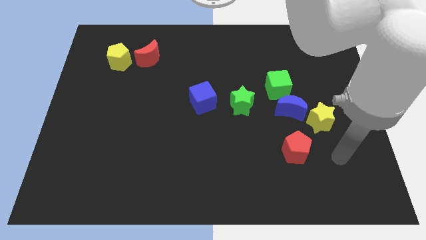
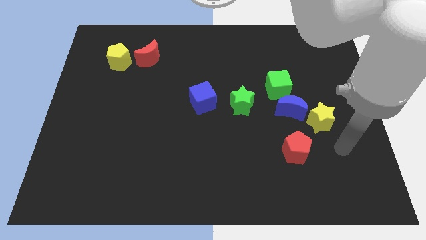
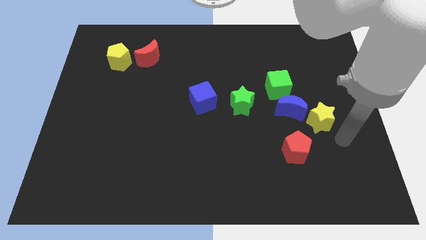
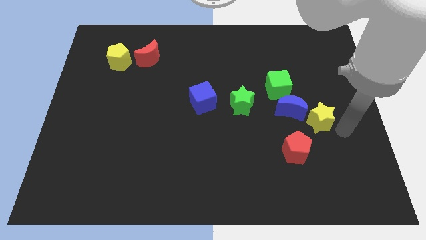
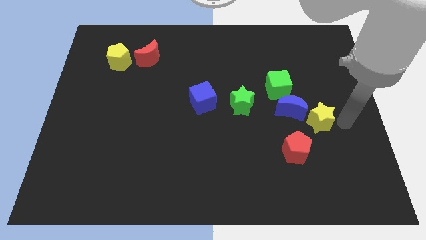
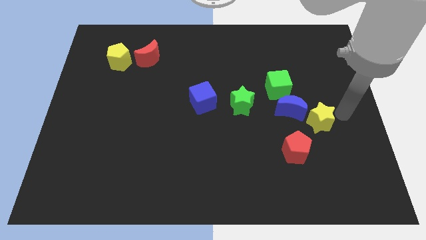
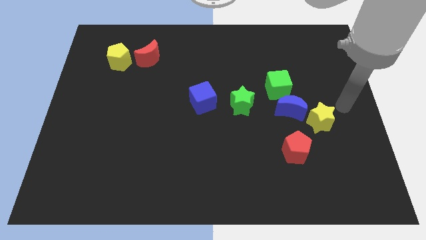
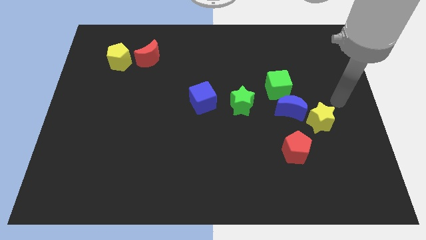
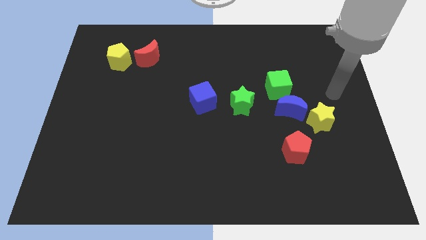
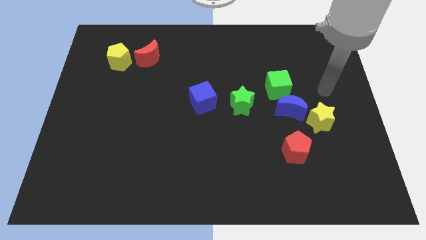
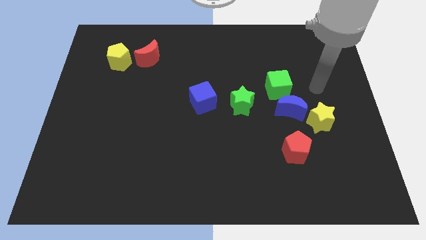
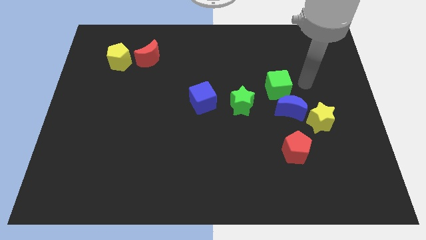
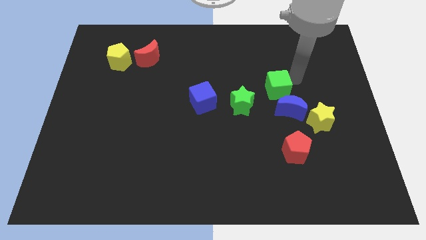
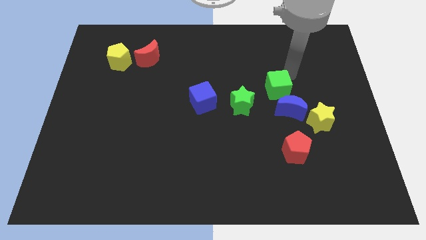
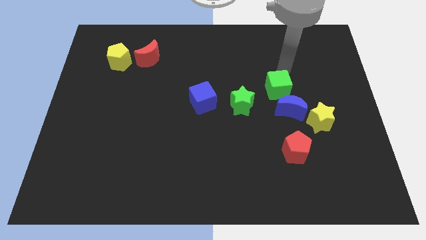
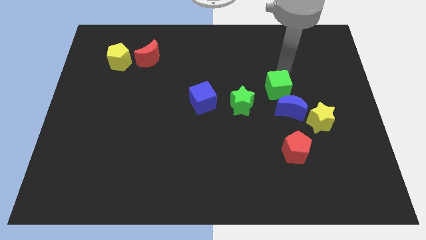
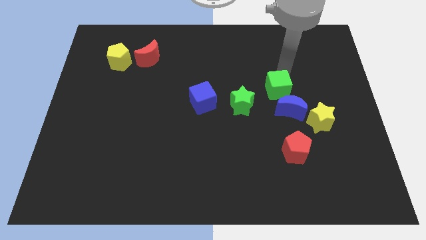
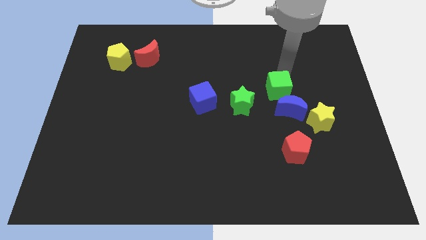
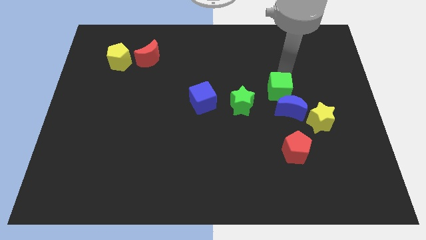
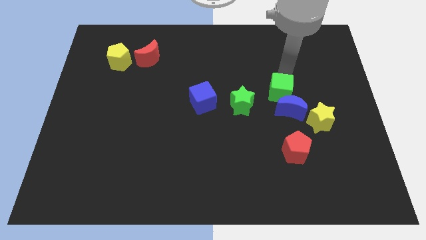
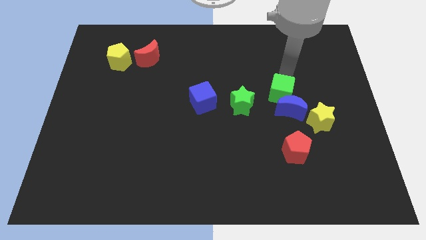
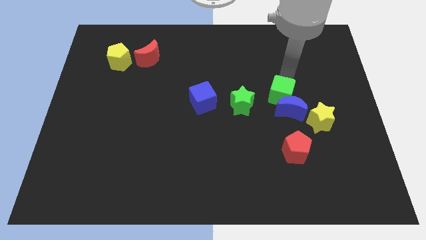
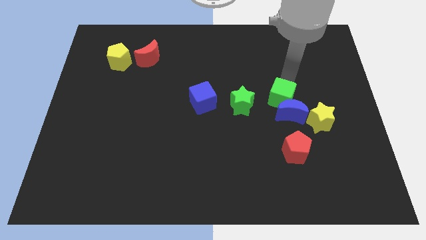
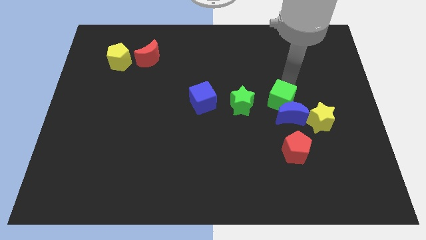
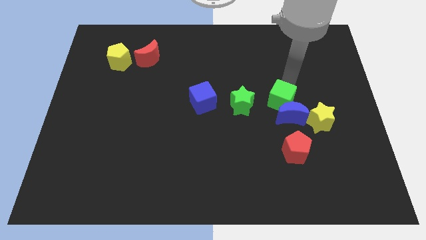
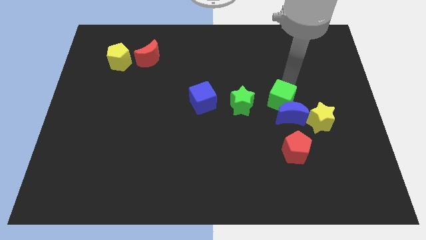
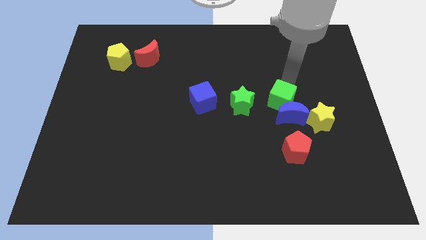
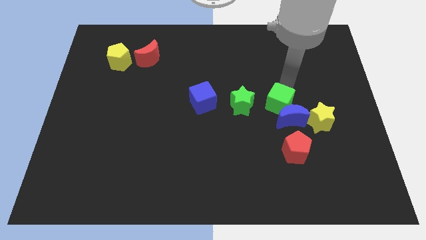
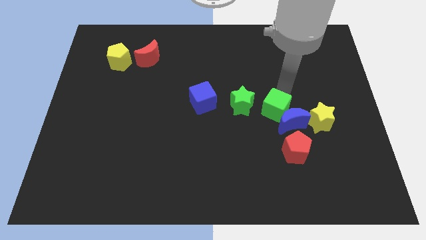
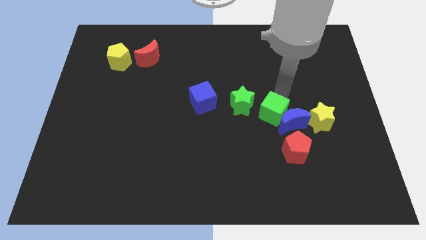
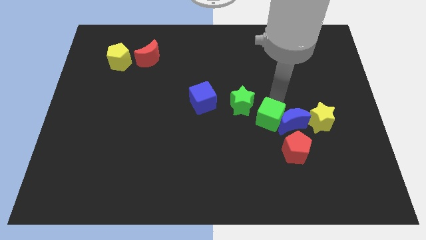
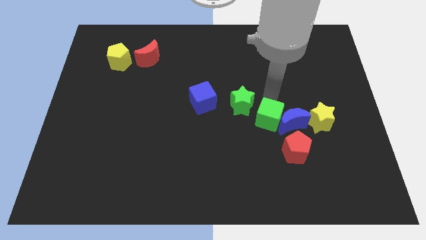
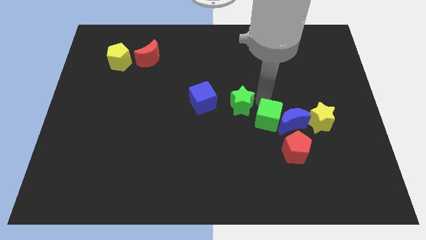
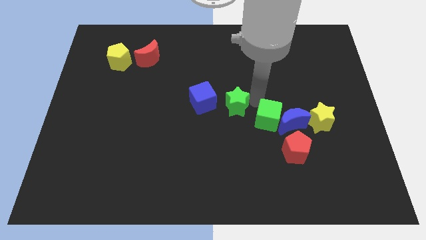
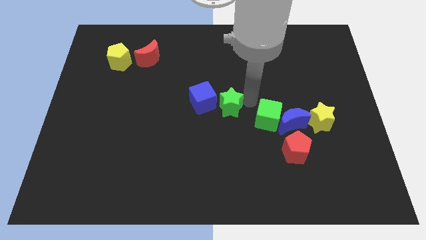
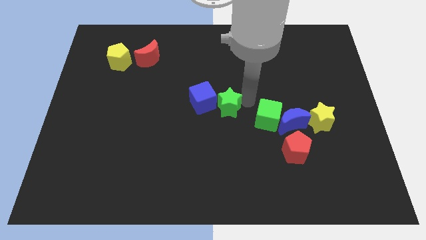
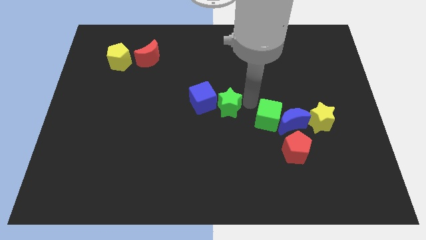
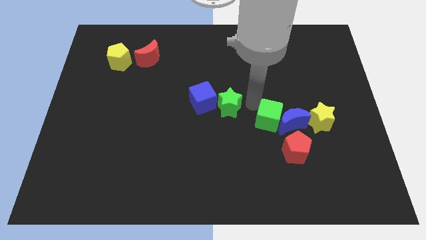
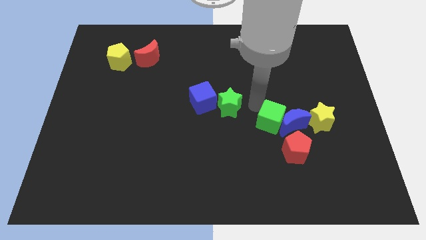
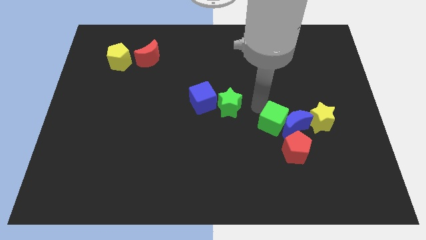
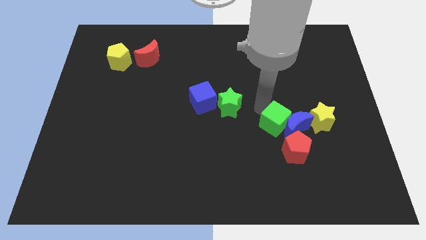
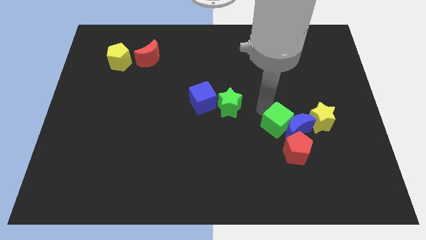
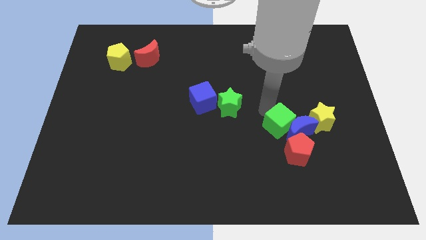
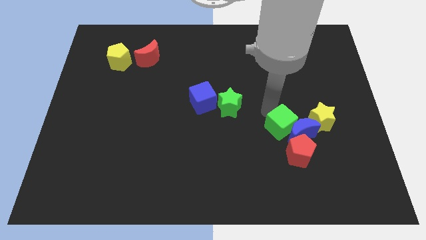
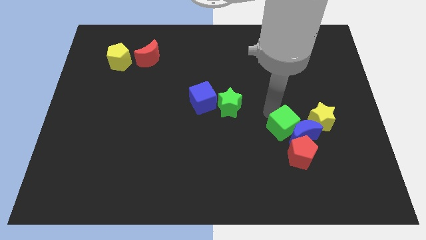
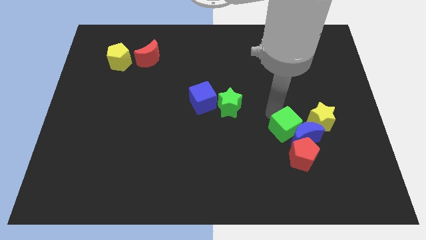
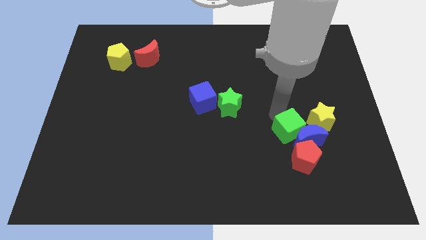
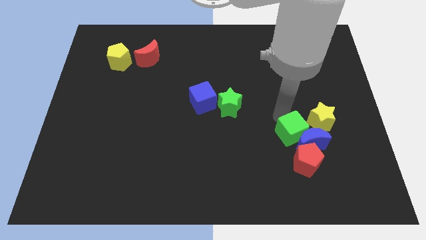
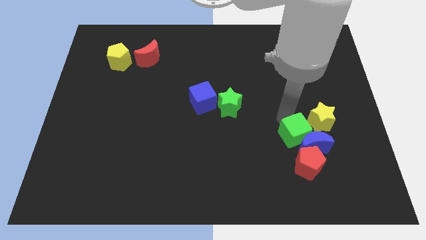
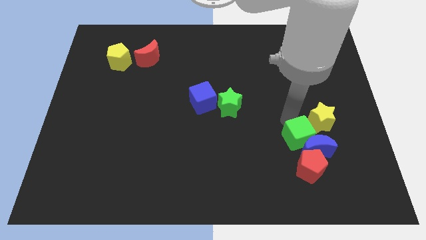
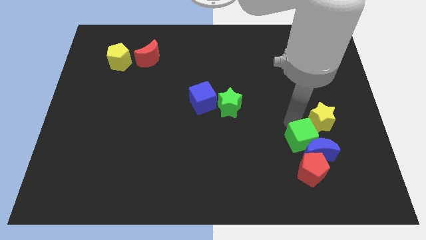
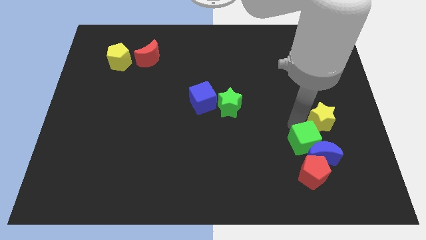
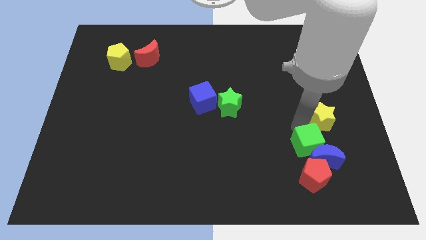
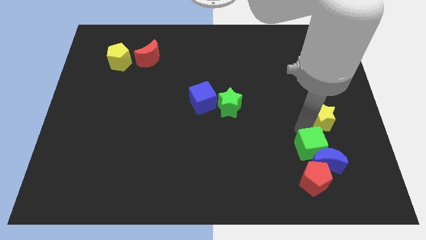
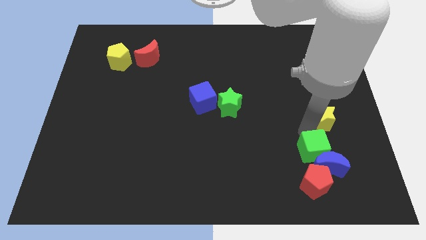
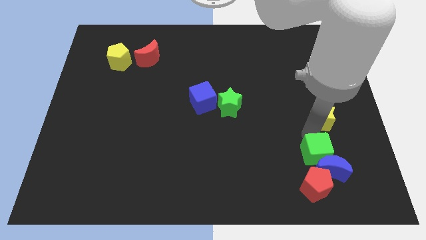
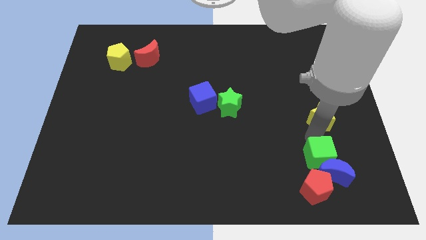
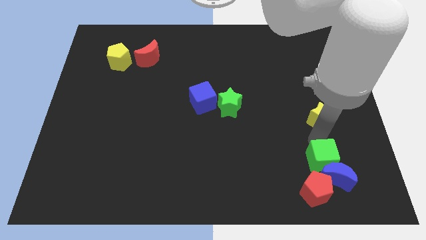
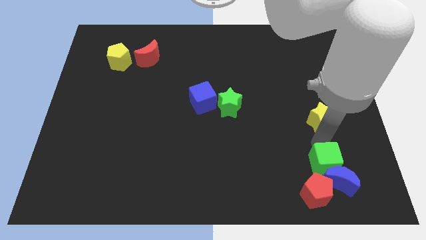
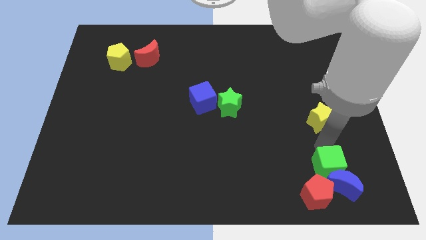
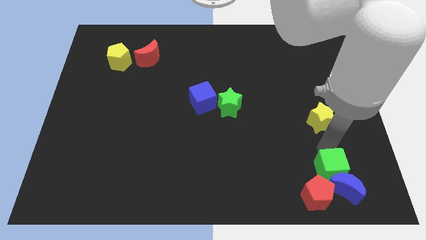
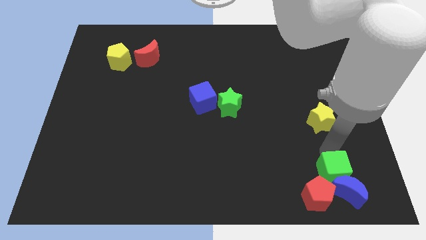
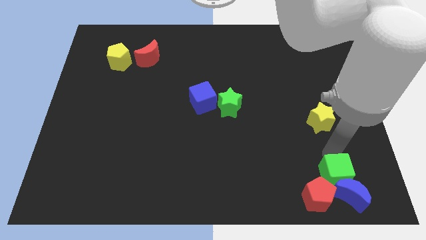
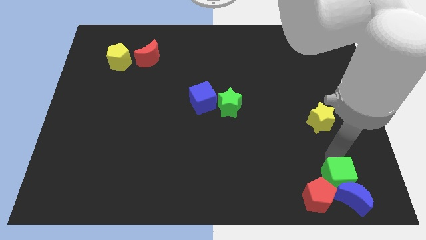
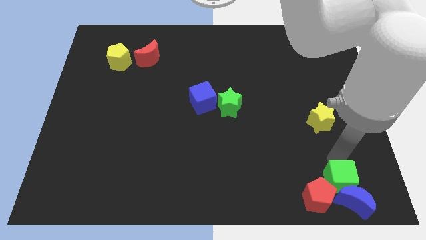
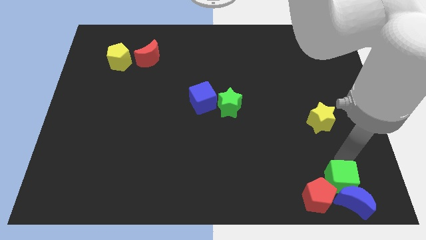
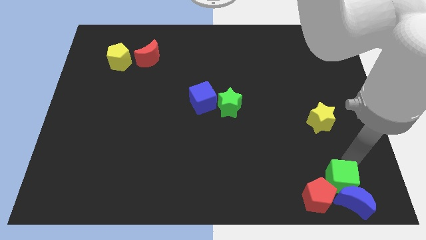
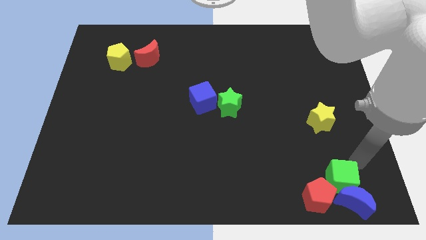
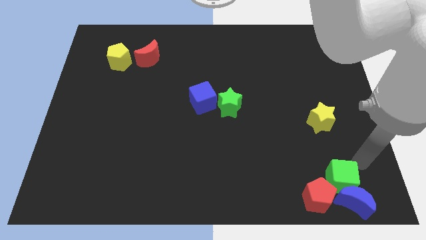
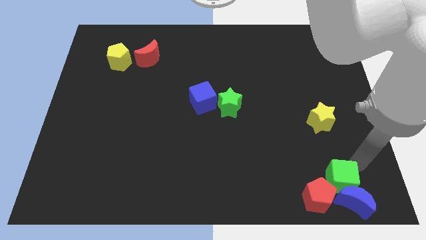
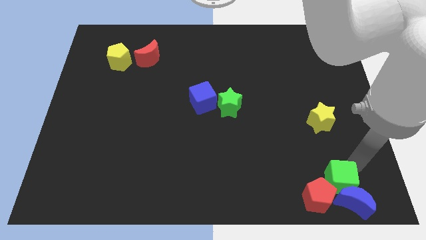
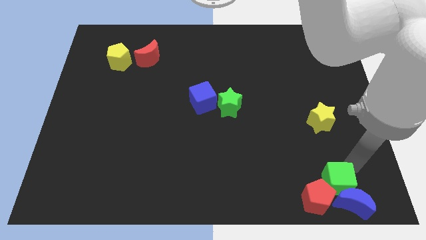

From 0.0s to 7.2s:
put the green cube next to the red pentagon

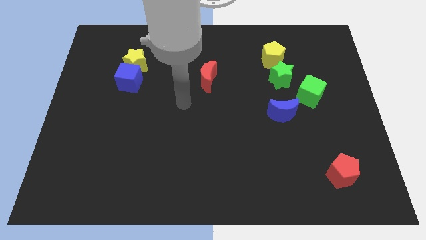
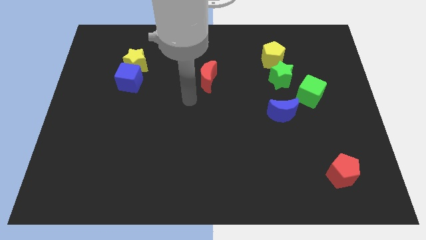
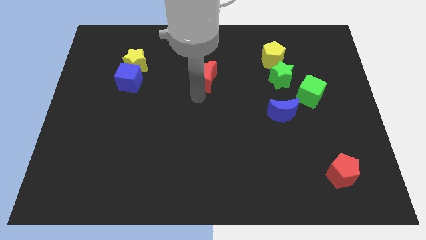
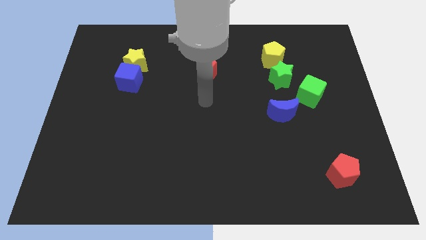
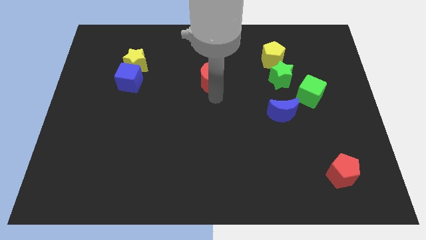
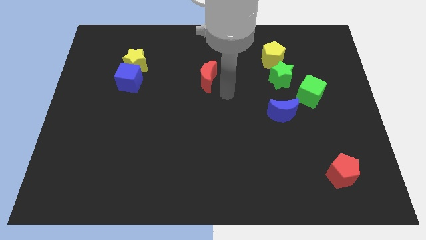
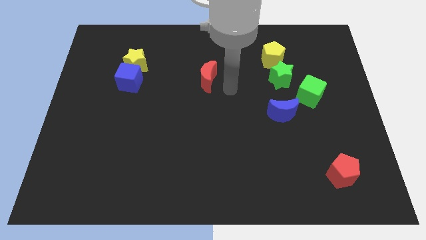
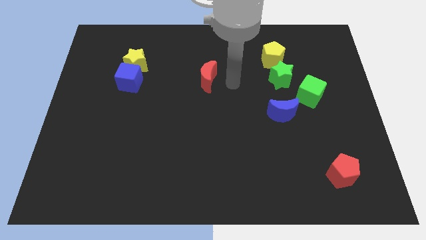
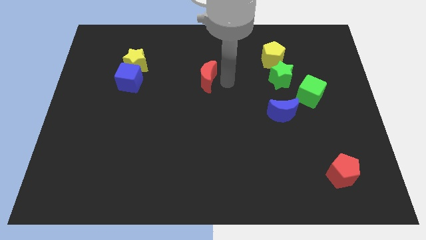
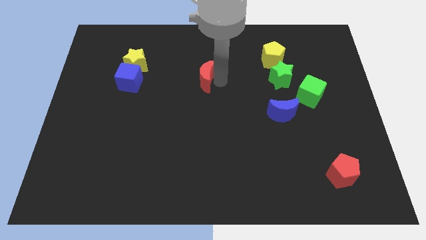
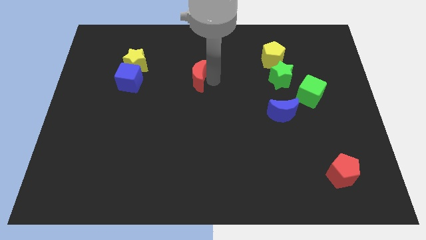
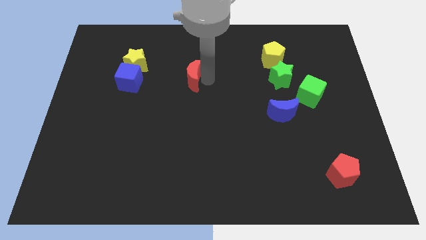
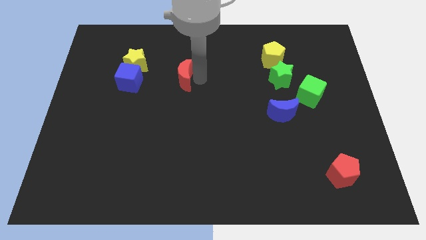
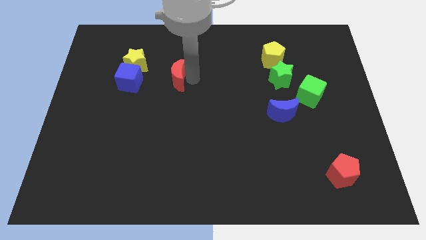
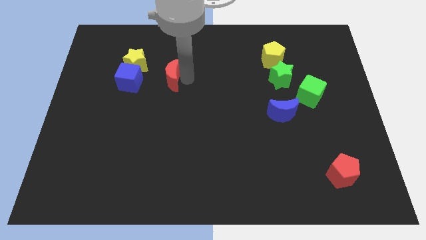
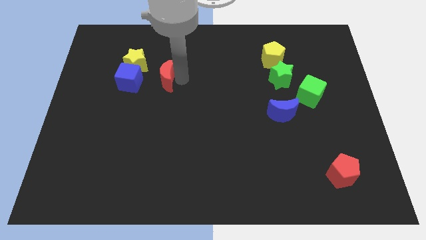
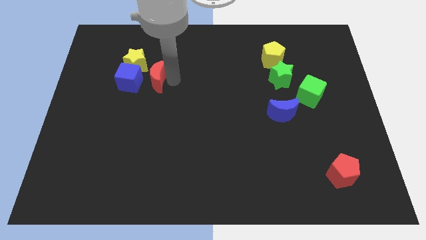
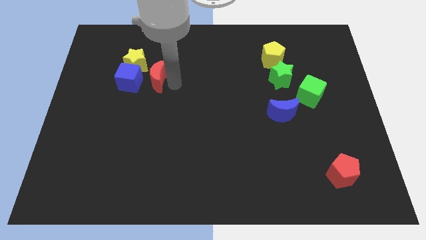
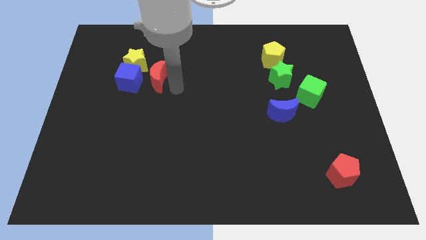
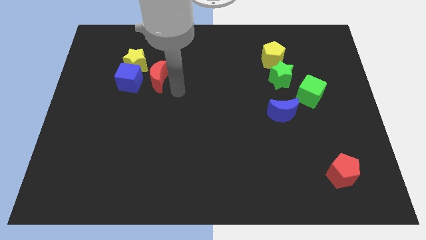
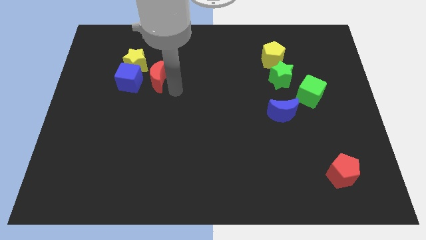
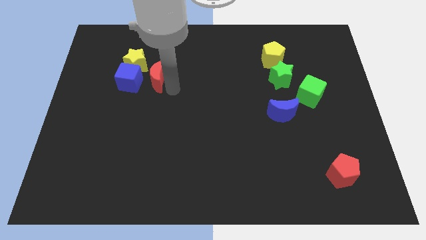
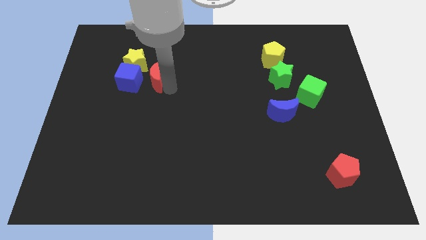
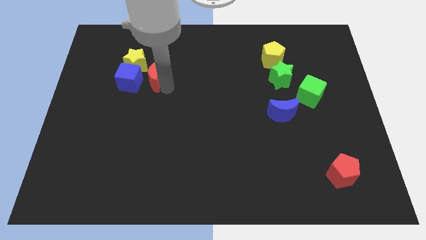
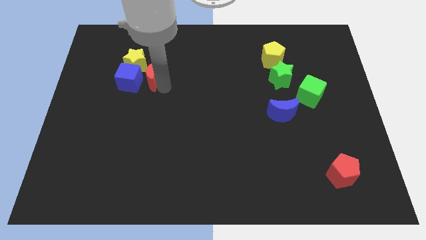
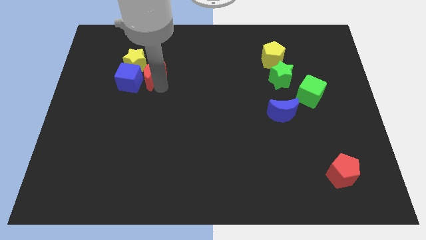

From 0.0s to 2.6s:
push the red moon towards the yellow star
